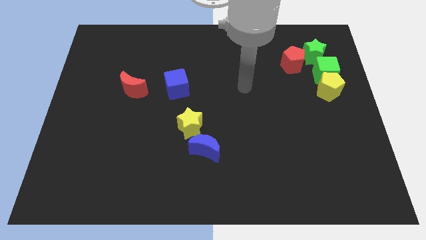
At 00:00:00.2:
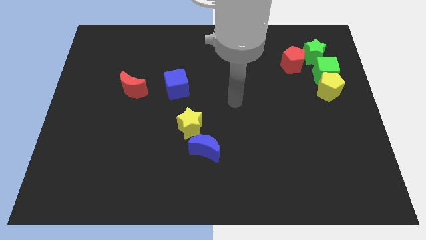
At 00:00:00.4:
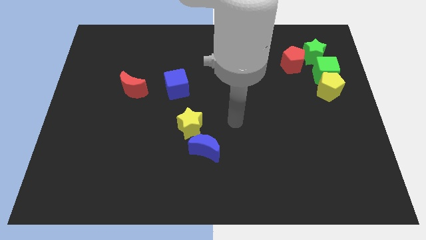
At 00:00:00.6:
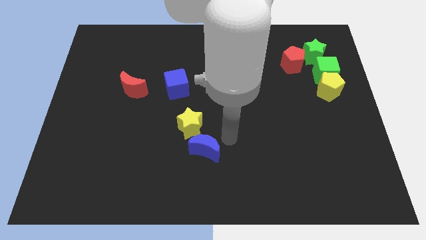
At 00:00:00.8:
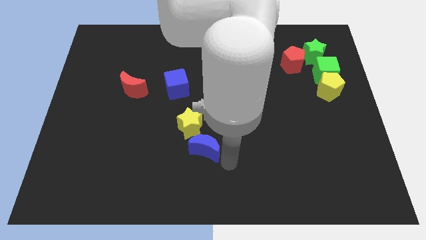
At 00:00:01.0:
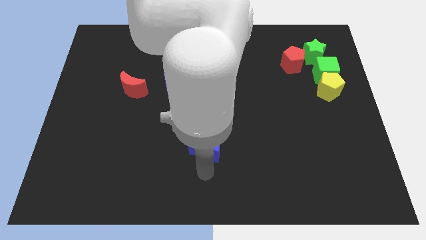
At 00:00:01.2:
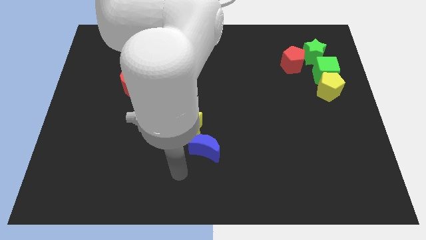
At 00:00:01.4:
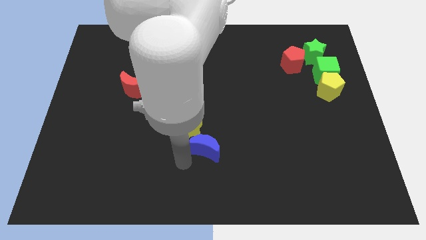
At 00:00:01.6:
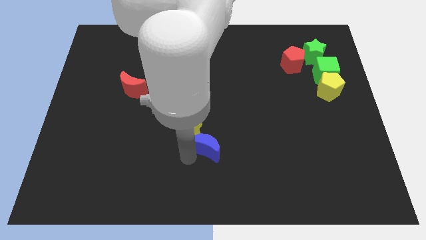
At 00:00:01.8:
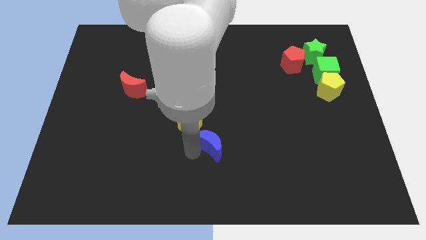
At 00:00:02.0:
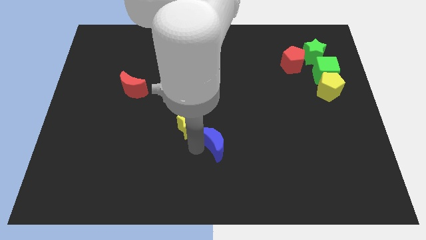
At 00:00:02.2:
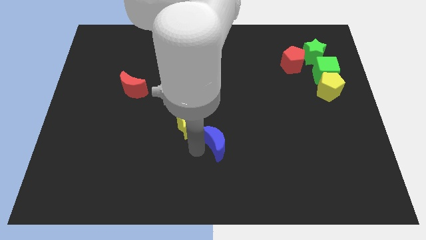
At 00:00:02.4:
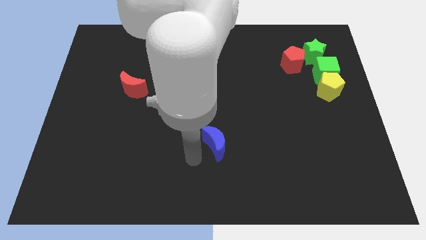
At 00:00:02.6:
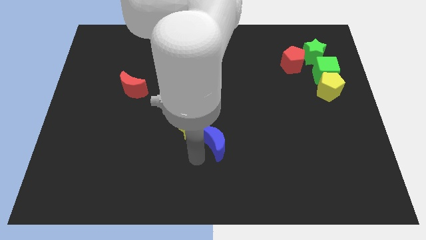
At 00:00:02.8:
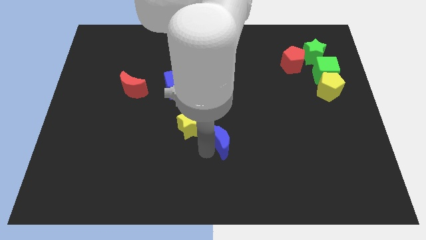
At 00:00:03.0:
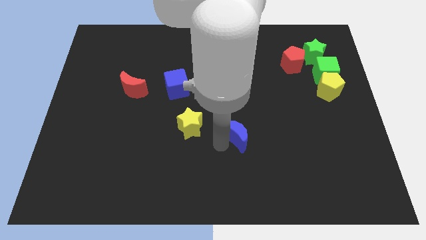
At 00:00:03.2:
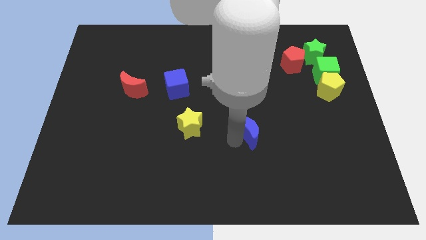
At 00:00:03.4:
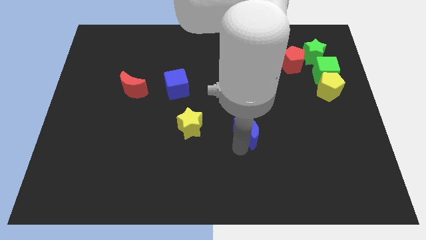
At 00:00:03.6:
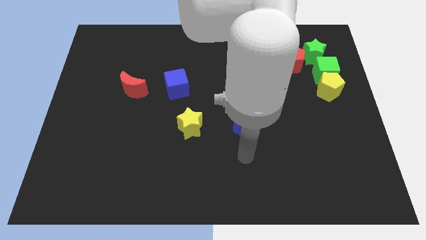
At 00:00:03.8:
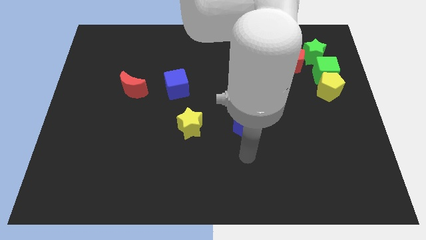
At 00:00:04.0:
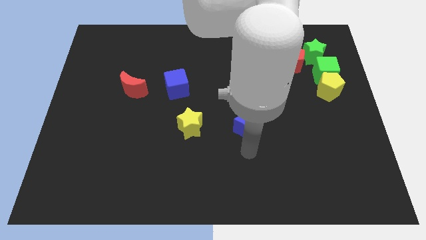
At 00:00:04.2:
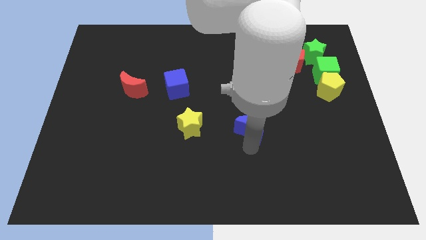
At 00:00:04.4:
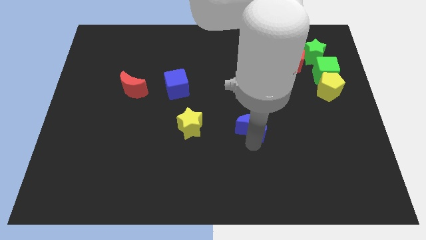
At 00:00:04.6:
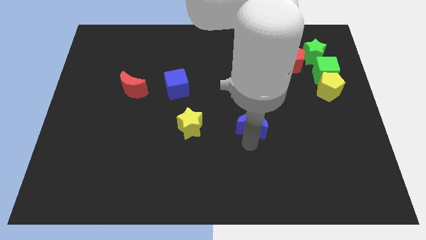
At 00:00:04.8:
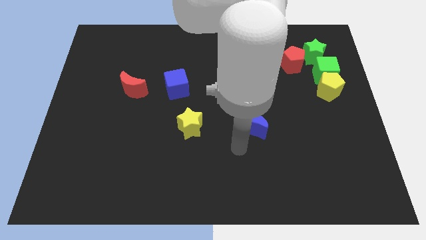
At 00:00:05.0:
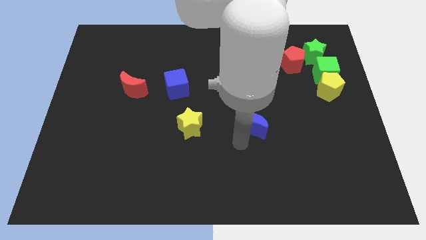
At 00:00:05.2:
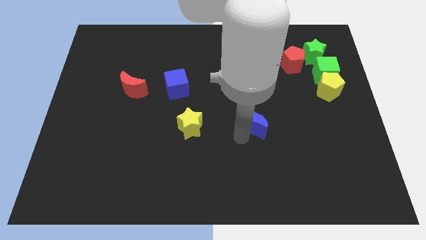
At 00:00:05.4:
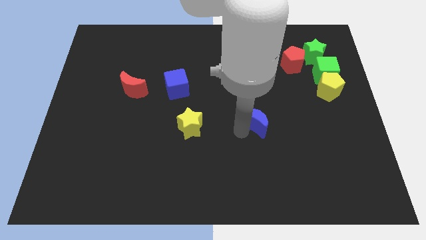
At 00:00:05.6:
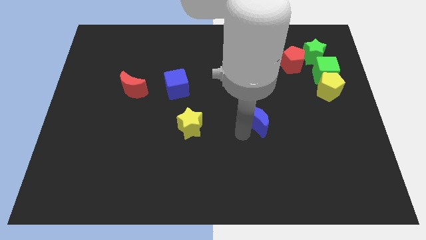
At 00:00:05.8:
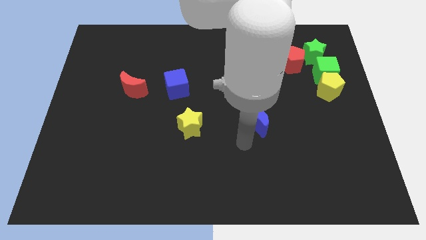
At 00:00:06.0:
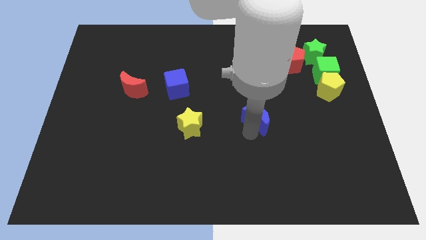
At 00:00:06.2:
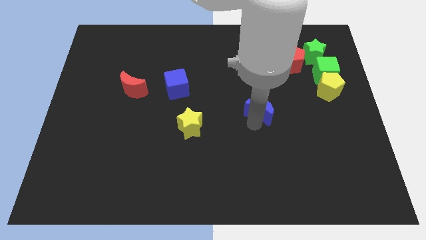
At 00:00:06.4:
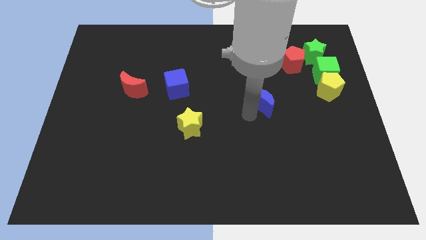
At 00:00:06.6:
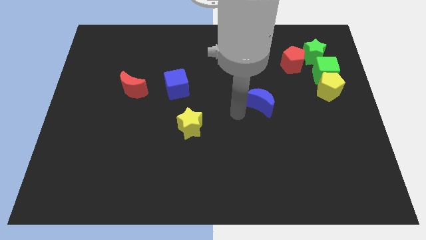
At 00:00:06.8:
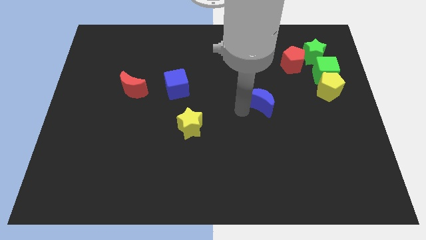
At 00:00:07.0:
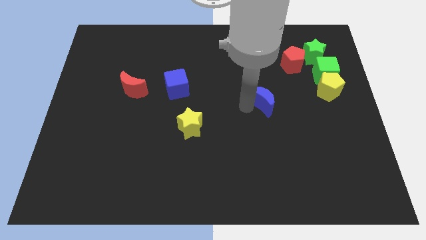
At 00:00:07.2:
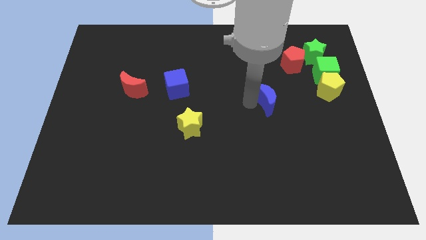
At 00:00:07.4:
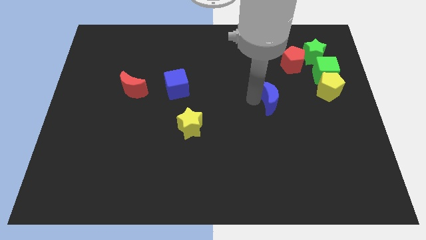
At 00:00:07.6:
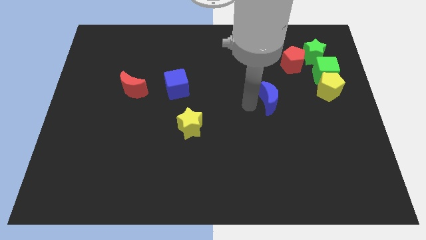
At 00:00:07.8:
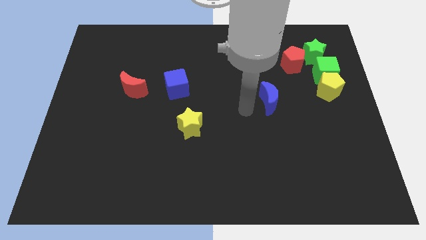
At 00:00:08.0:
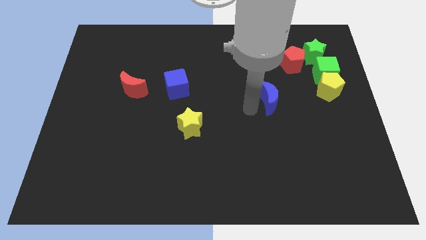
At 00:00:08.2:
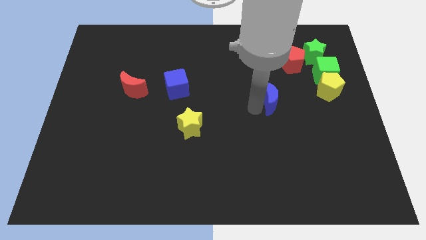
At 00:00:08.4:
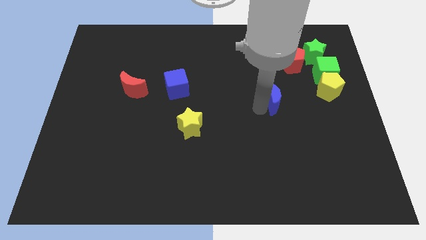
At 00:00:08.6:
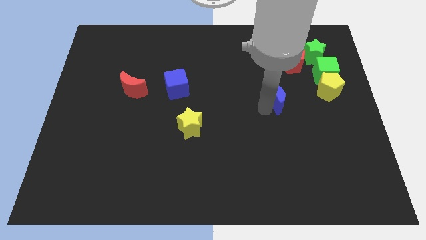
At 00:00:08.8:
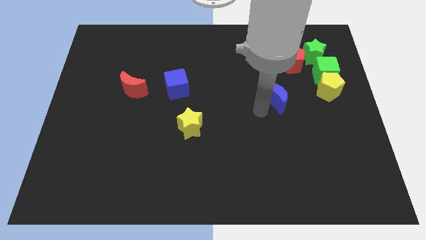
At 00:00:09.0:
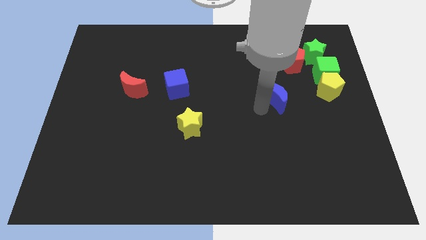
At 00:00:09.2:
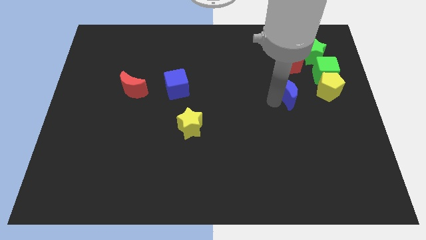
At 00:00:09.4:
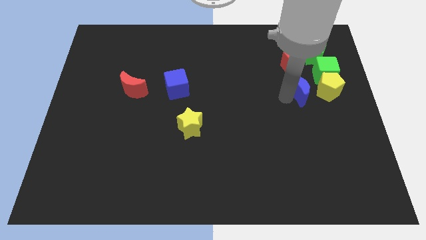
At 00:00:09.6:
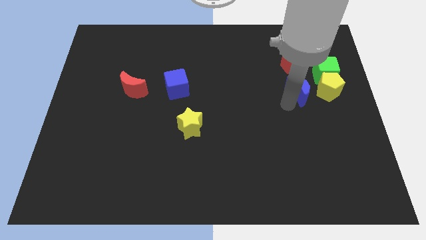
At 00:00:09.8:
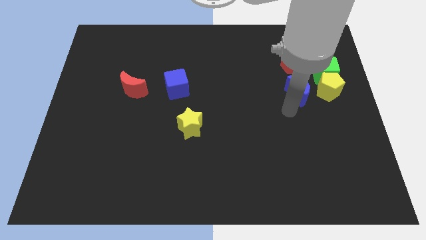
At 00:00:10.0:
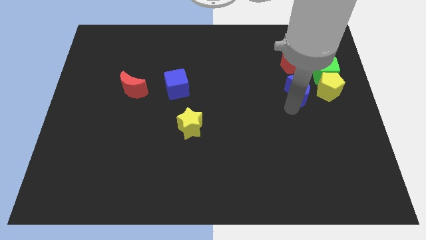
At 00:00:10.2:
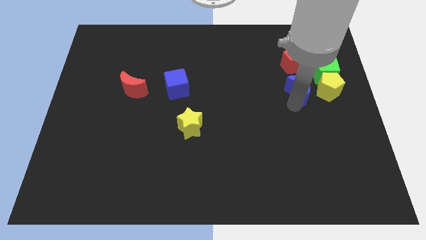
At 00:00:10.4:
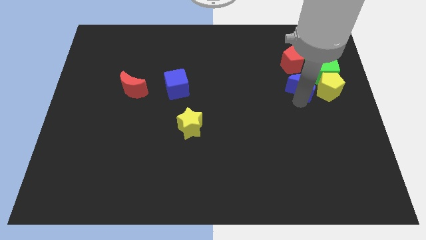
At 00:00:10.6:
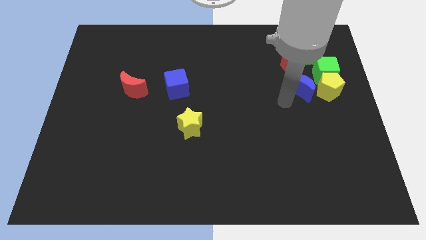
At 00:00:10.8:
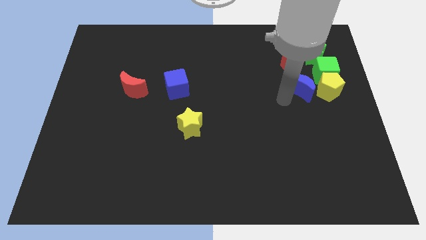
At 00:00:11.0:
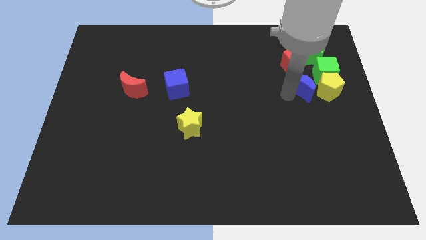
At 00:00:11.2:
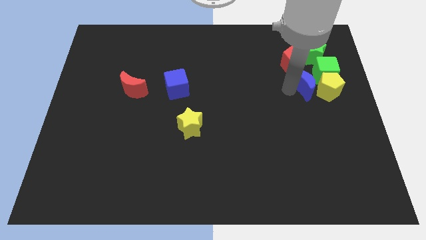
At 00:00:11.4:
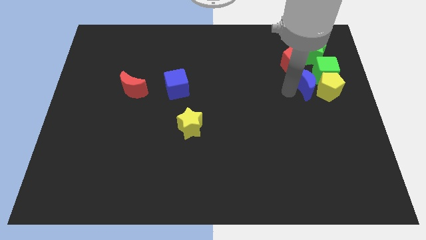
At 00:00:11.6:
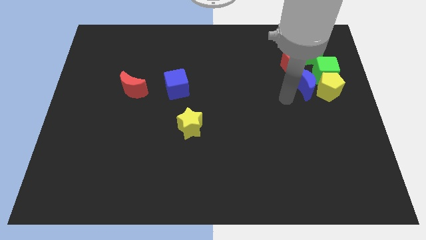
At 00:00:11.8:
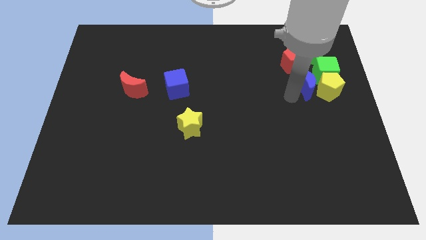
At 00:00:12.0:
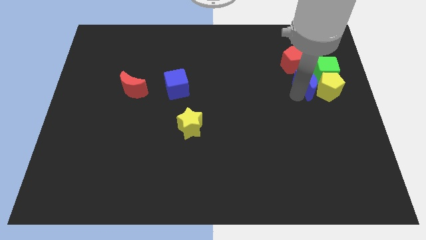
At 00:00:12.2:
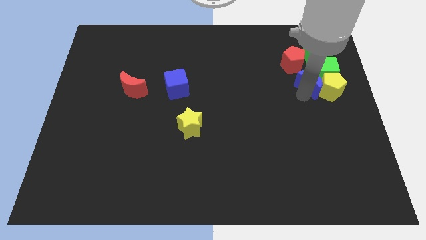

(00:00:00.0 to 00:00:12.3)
put the blue moon towards the green cube
